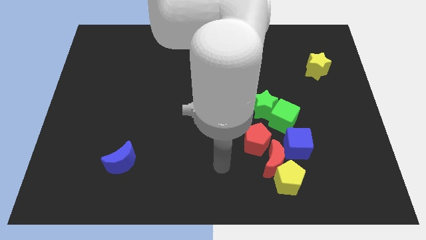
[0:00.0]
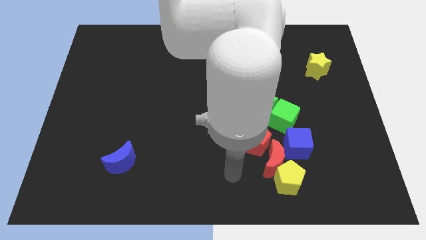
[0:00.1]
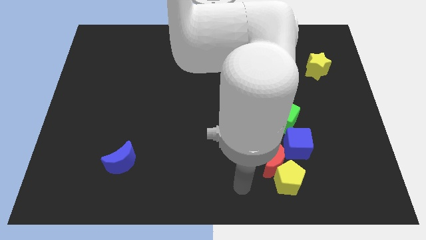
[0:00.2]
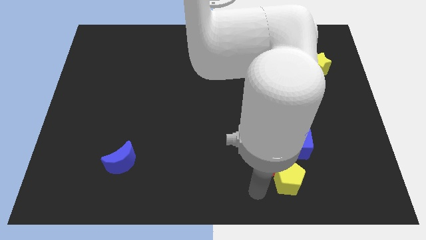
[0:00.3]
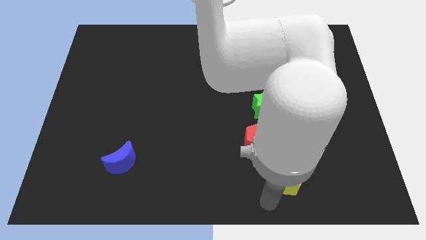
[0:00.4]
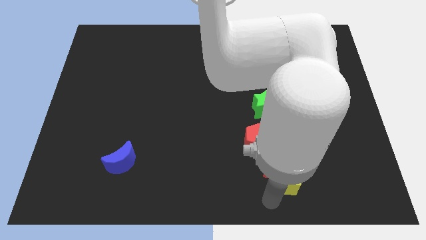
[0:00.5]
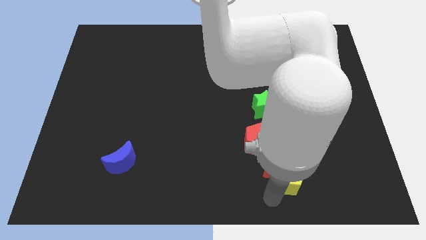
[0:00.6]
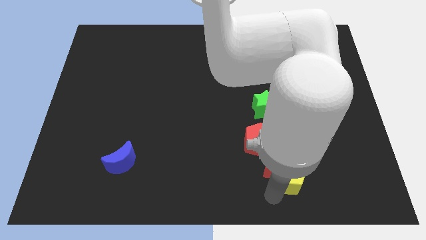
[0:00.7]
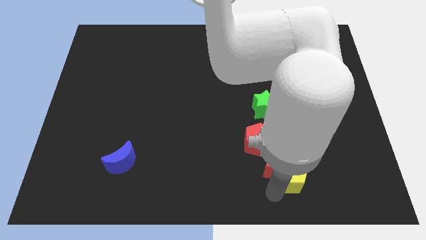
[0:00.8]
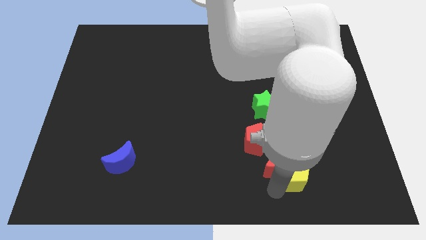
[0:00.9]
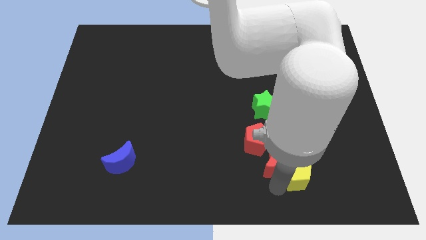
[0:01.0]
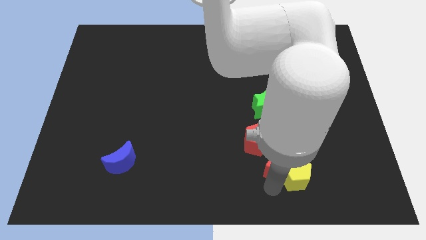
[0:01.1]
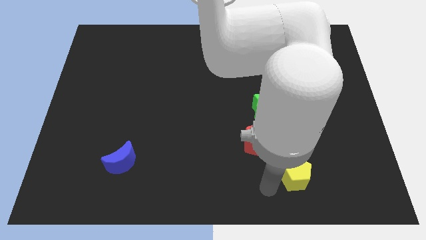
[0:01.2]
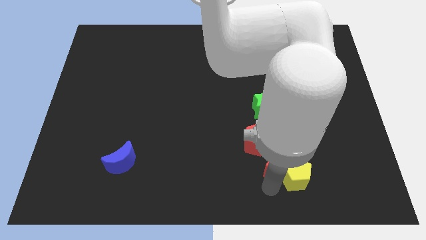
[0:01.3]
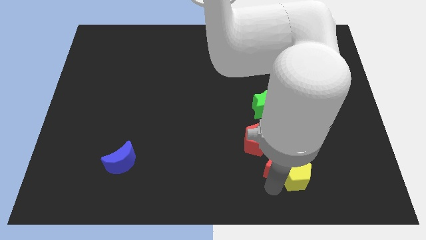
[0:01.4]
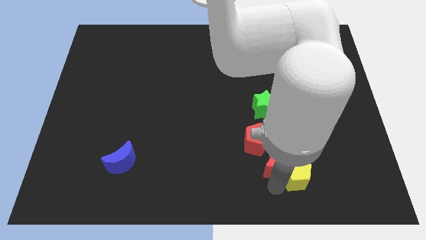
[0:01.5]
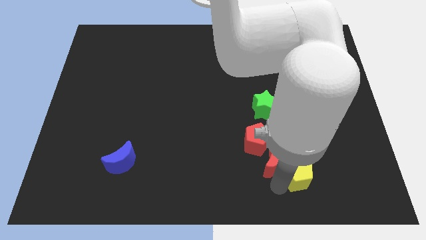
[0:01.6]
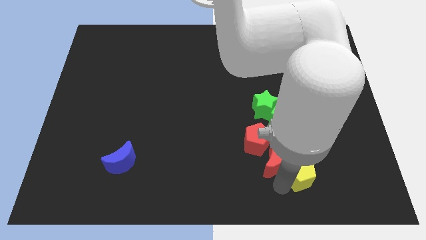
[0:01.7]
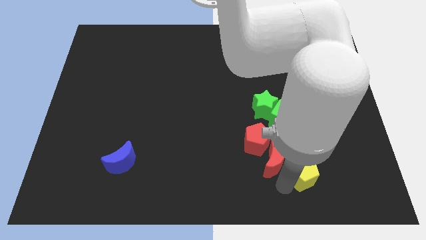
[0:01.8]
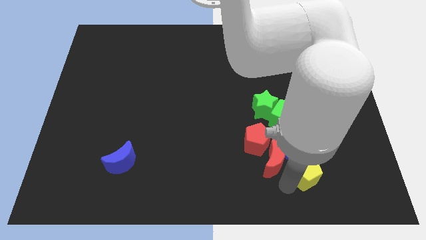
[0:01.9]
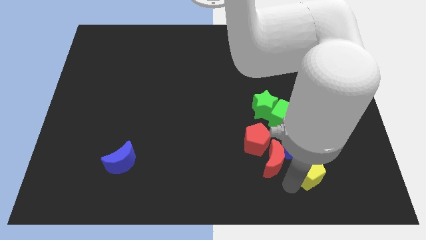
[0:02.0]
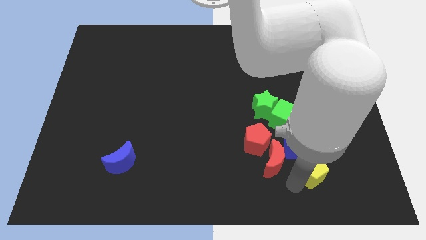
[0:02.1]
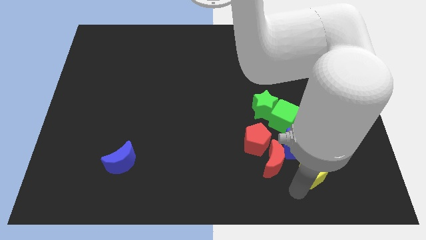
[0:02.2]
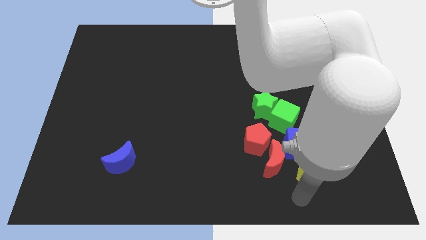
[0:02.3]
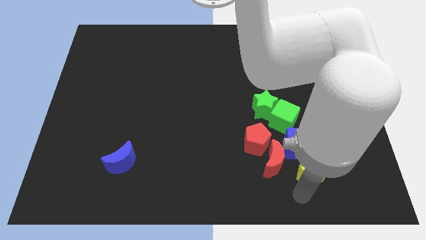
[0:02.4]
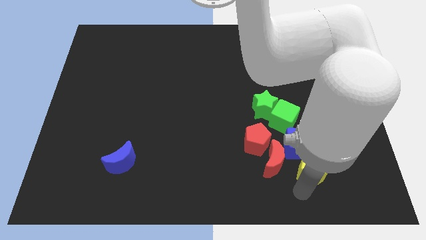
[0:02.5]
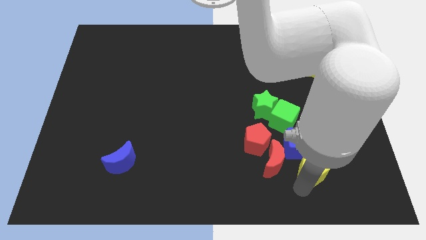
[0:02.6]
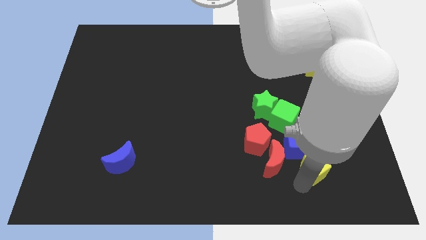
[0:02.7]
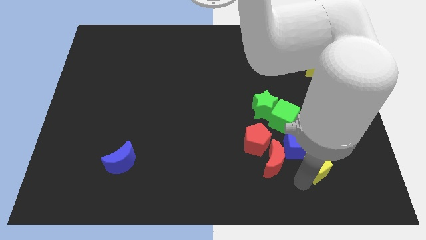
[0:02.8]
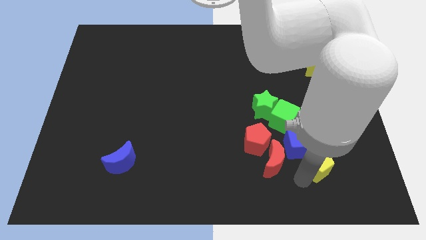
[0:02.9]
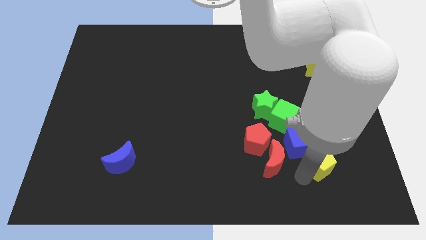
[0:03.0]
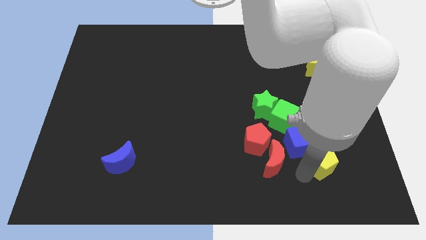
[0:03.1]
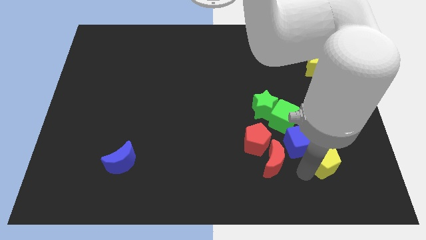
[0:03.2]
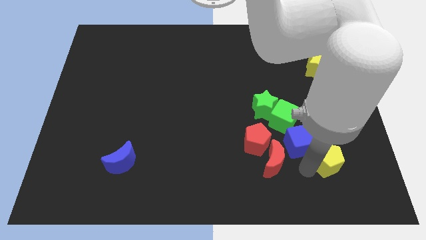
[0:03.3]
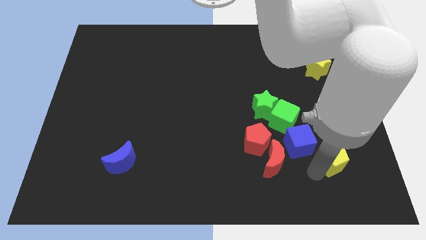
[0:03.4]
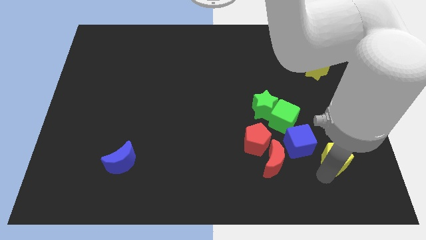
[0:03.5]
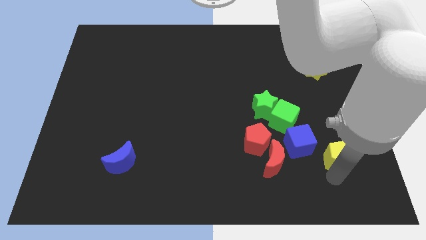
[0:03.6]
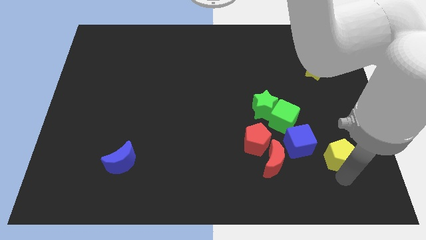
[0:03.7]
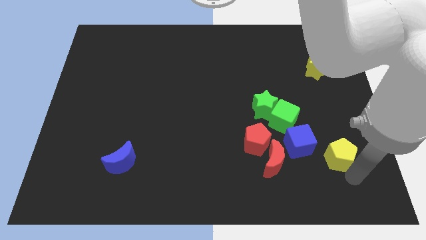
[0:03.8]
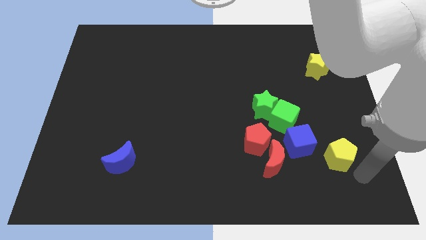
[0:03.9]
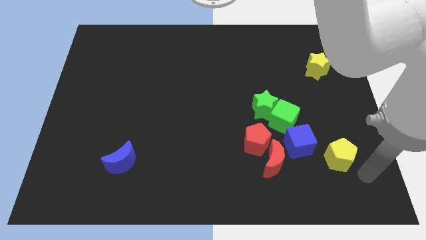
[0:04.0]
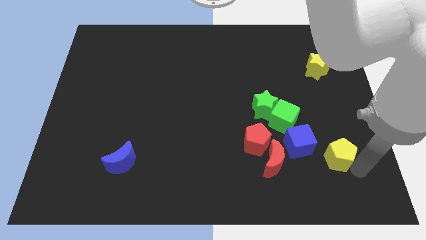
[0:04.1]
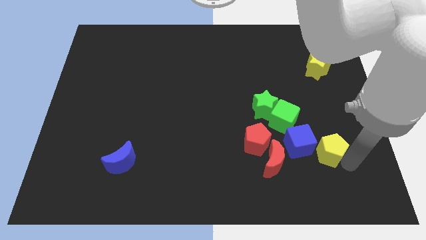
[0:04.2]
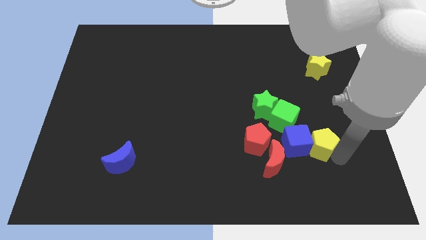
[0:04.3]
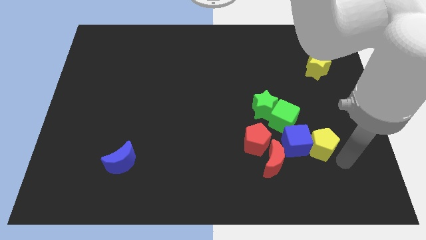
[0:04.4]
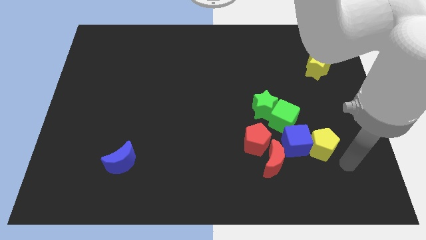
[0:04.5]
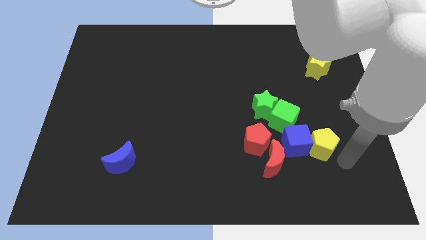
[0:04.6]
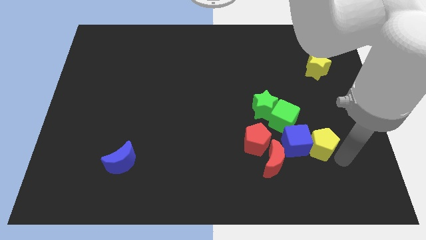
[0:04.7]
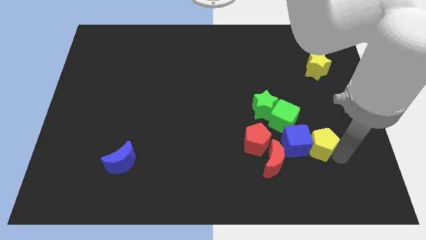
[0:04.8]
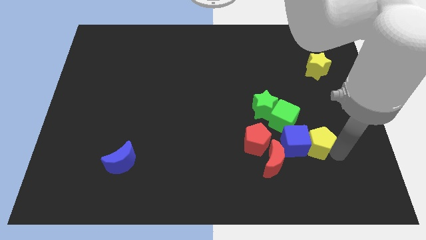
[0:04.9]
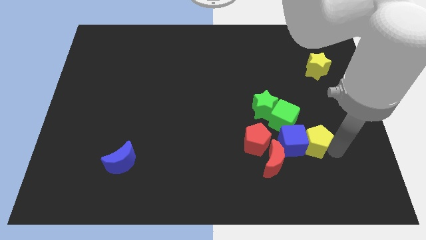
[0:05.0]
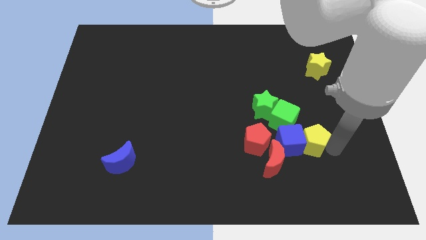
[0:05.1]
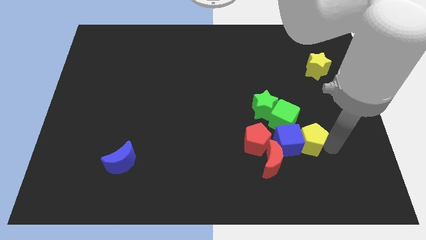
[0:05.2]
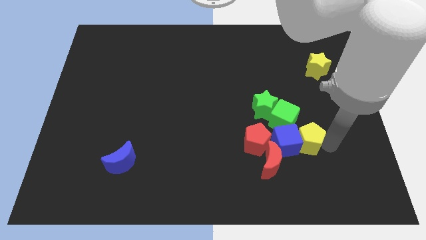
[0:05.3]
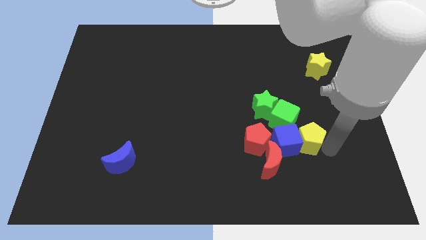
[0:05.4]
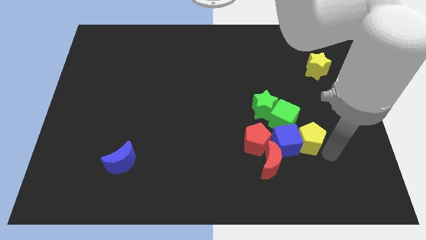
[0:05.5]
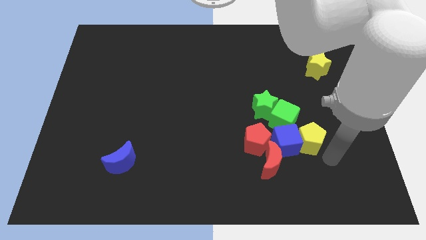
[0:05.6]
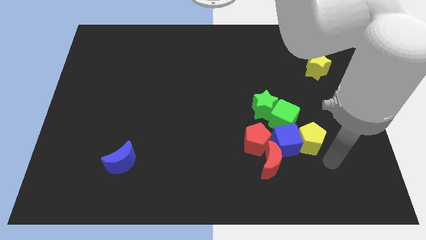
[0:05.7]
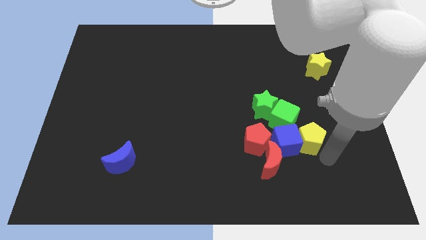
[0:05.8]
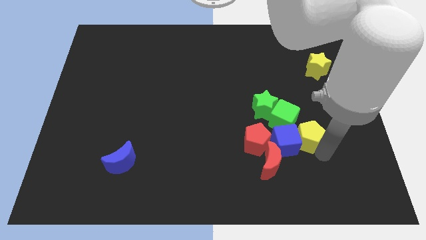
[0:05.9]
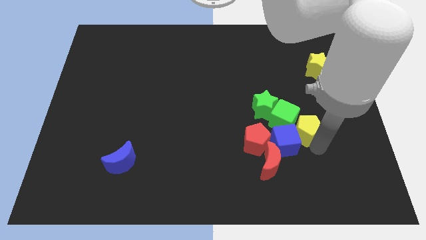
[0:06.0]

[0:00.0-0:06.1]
slide the yellow pentagon to the green cube
